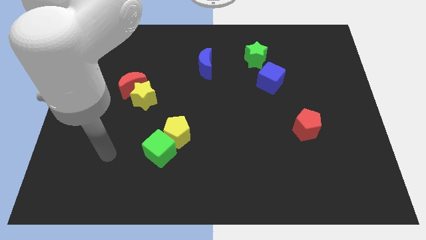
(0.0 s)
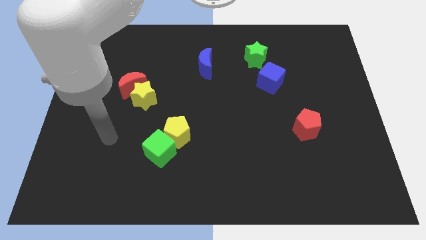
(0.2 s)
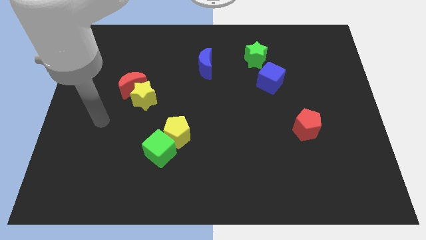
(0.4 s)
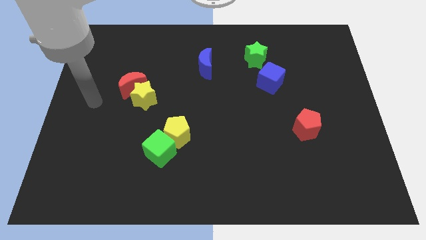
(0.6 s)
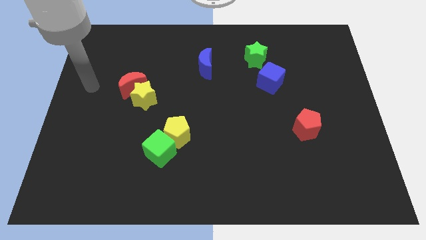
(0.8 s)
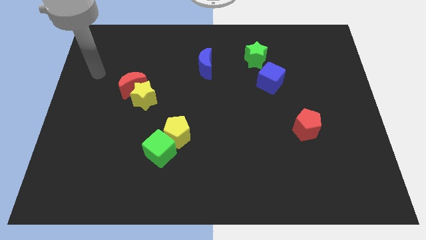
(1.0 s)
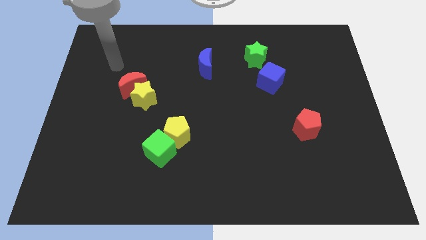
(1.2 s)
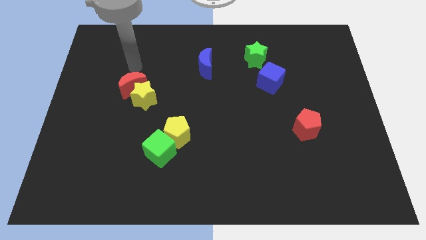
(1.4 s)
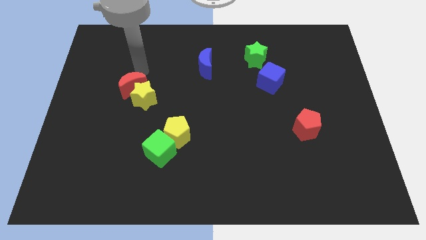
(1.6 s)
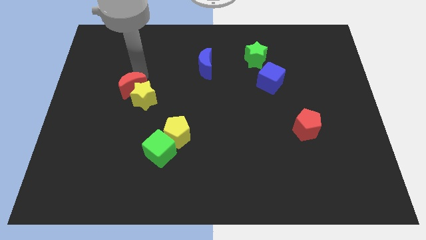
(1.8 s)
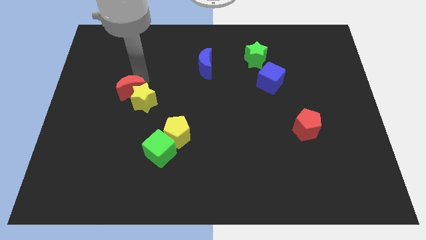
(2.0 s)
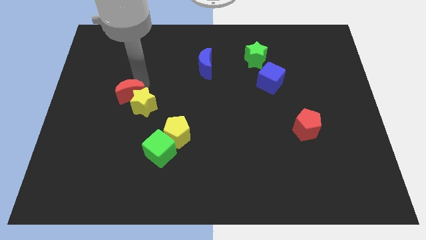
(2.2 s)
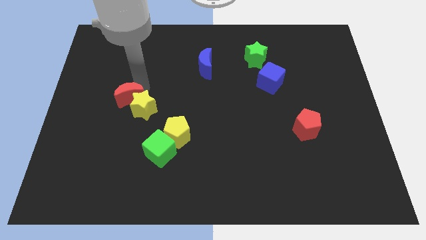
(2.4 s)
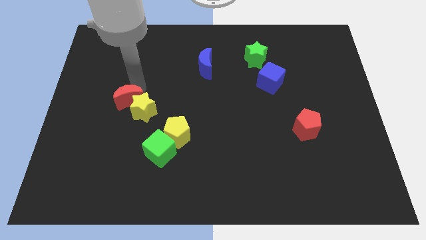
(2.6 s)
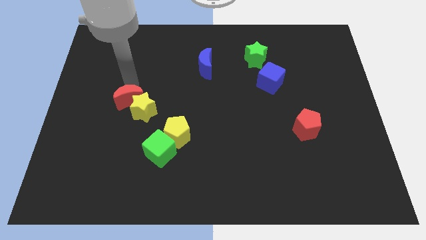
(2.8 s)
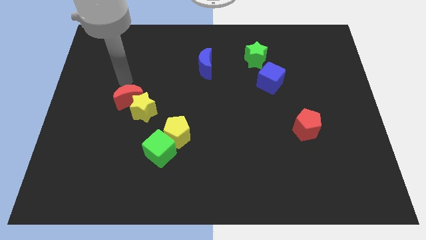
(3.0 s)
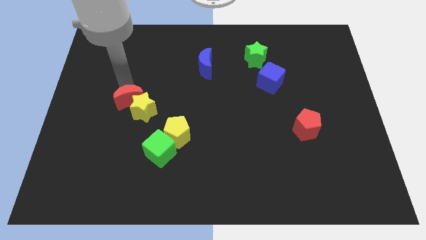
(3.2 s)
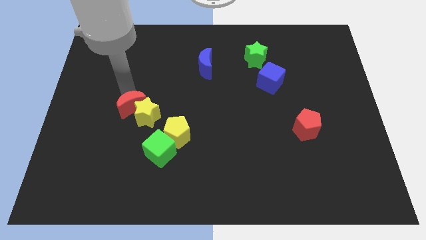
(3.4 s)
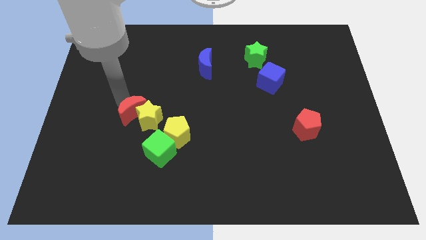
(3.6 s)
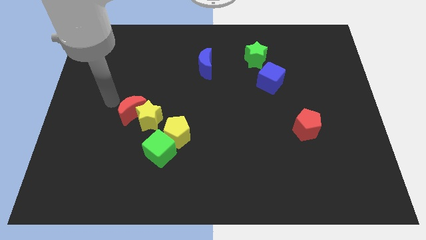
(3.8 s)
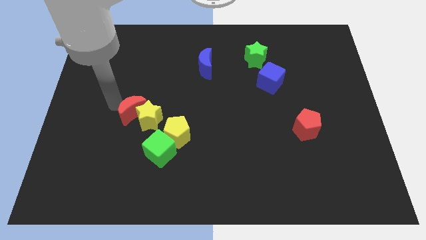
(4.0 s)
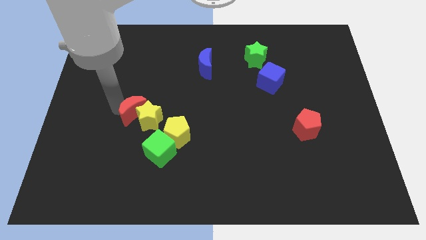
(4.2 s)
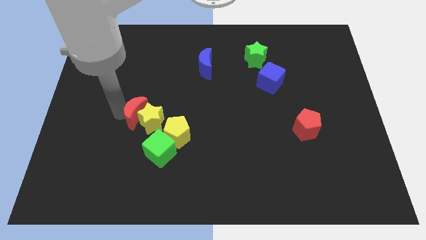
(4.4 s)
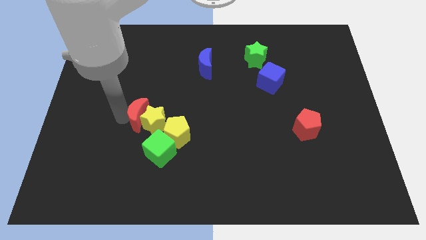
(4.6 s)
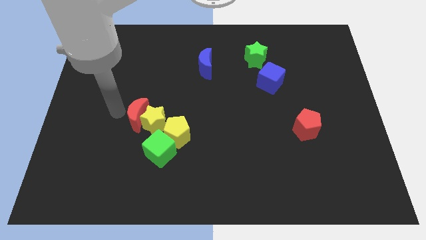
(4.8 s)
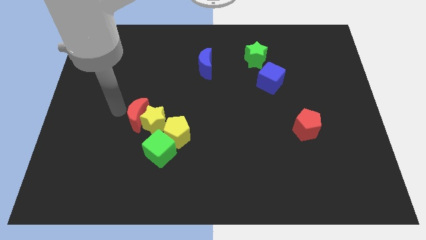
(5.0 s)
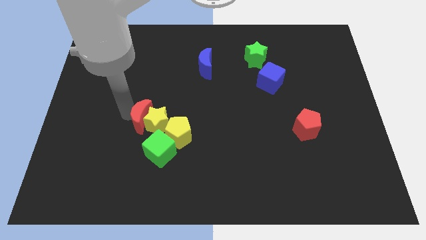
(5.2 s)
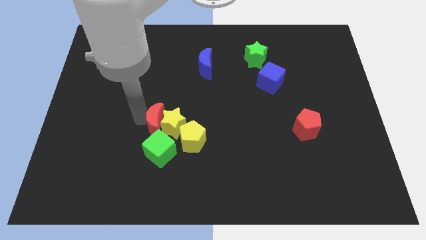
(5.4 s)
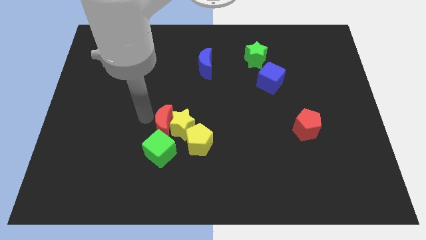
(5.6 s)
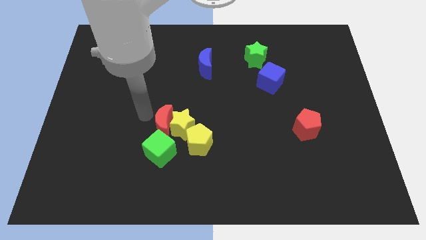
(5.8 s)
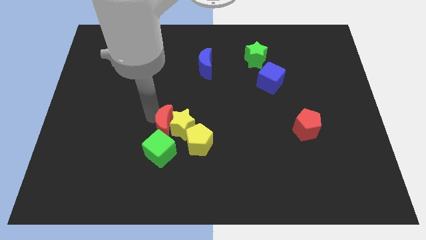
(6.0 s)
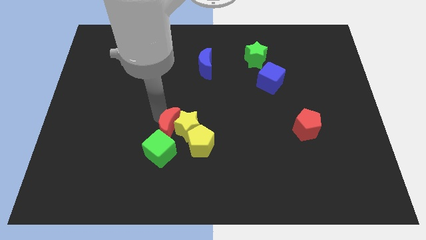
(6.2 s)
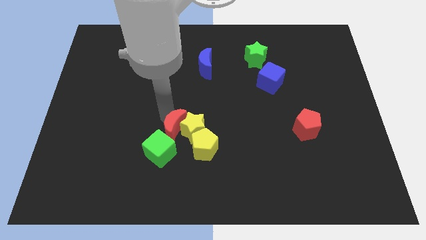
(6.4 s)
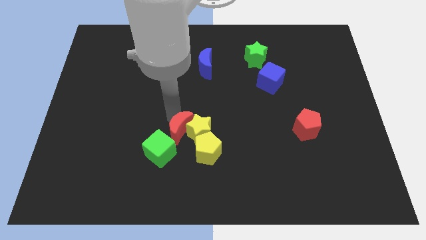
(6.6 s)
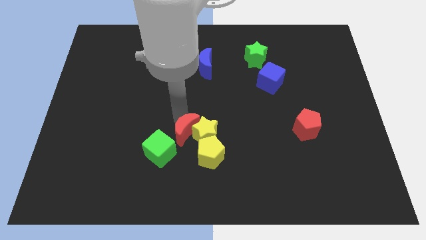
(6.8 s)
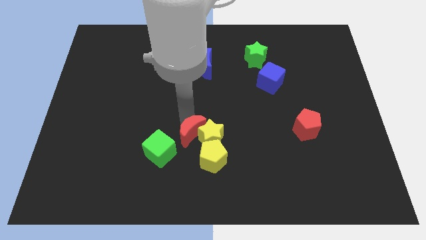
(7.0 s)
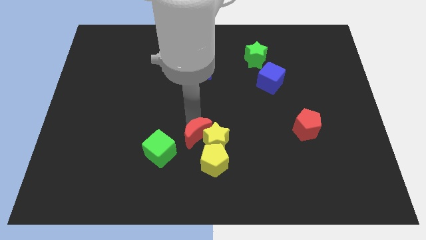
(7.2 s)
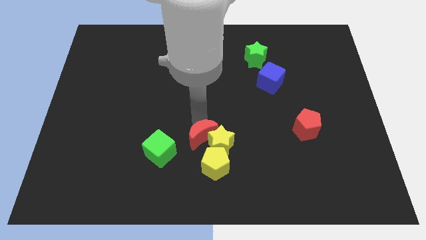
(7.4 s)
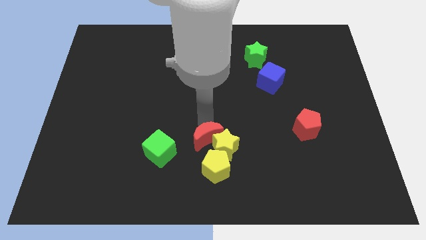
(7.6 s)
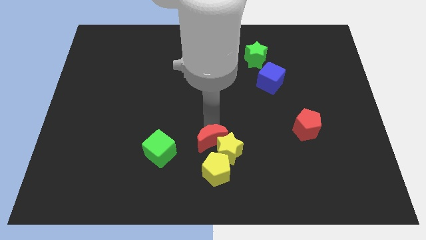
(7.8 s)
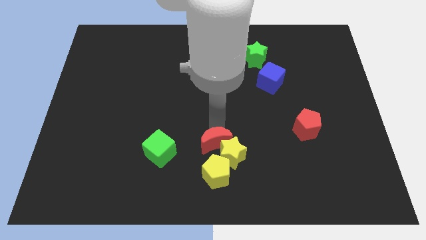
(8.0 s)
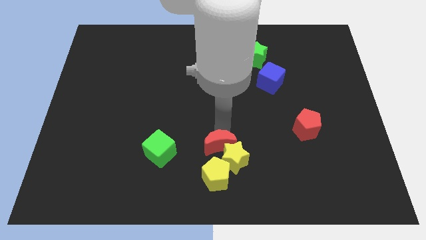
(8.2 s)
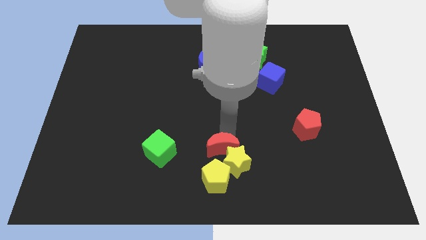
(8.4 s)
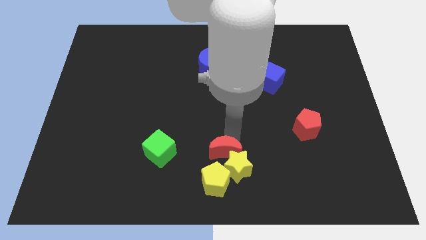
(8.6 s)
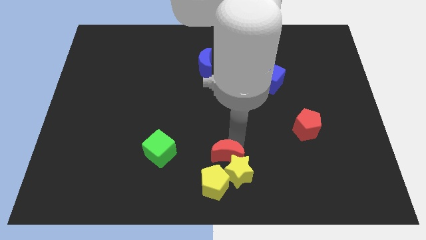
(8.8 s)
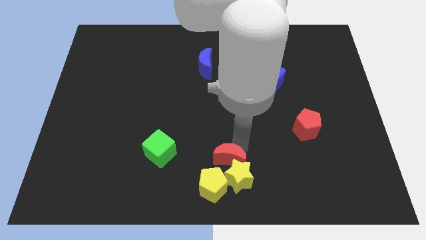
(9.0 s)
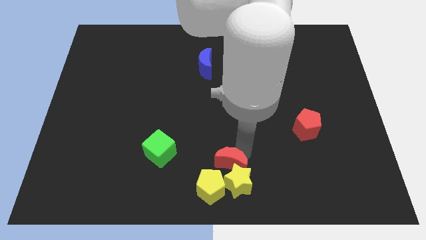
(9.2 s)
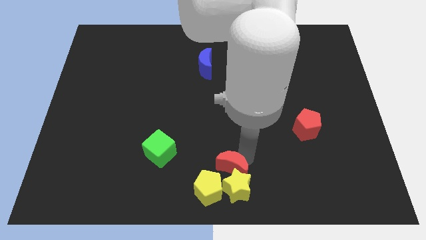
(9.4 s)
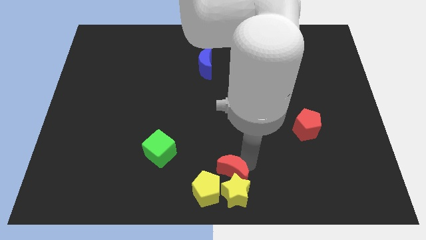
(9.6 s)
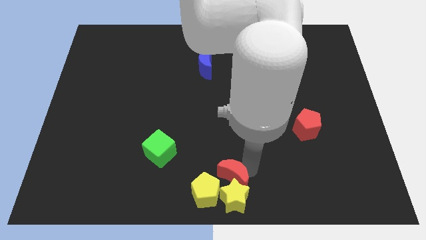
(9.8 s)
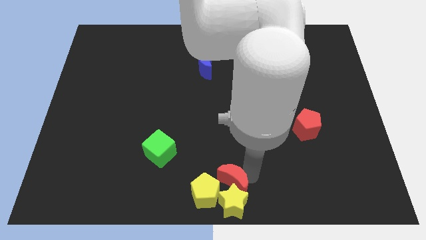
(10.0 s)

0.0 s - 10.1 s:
move the red moon close to the yellow pentagon

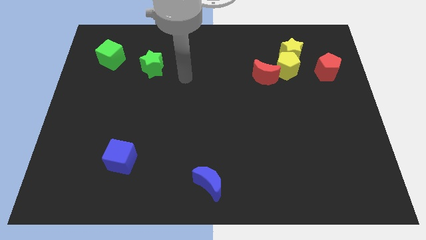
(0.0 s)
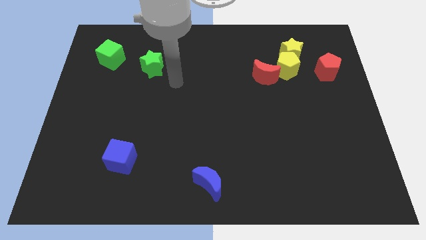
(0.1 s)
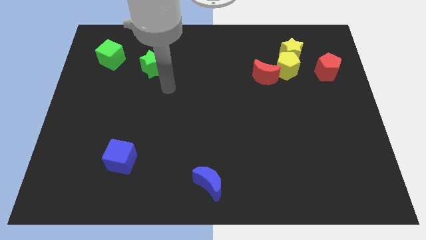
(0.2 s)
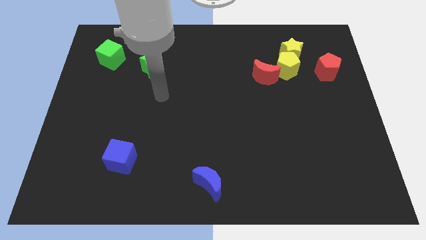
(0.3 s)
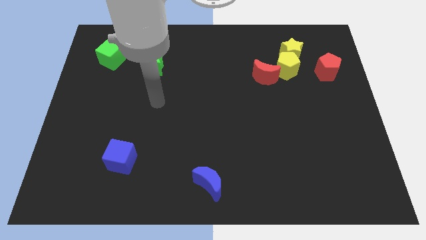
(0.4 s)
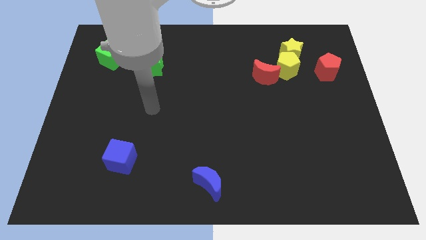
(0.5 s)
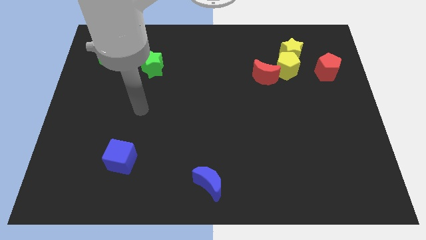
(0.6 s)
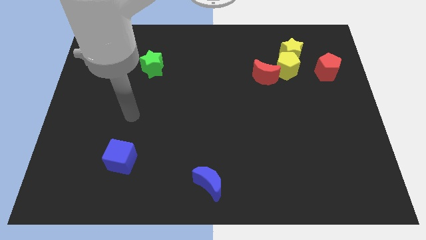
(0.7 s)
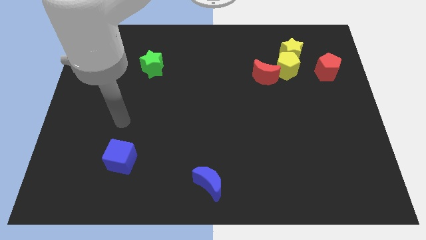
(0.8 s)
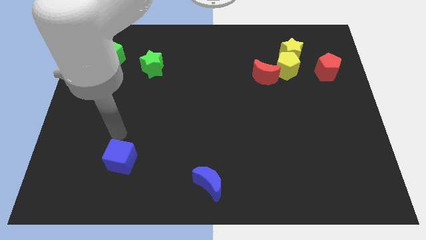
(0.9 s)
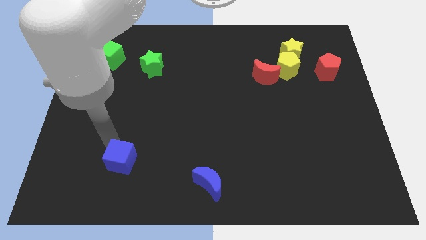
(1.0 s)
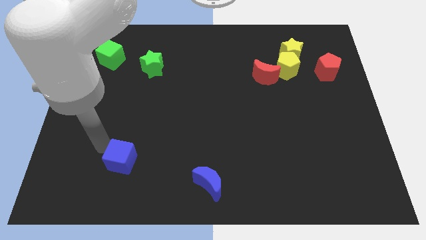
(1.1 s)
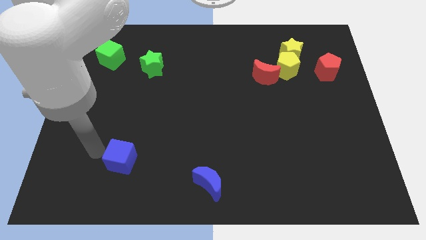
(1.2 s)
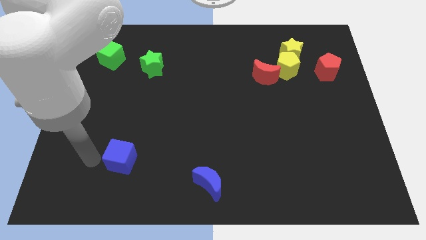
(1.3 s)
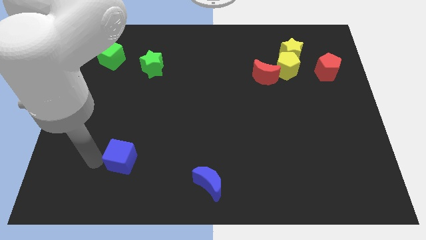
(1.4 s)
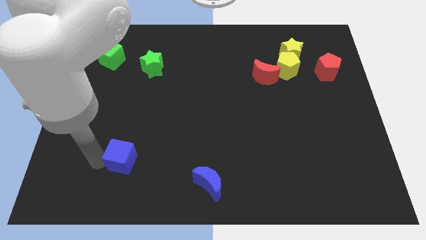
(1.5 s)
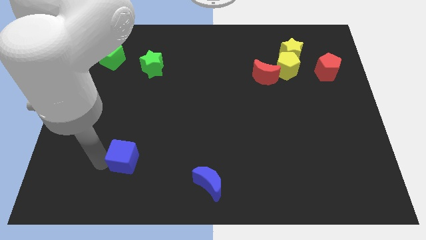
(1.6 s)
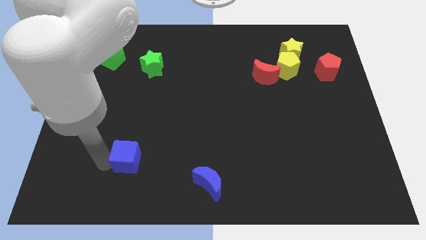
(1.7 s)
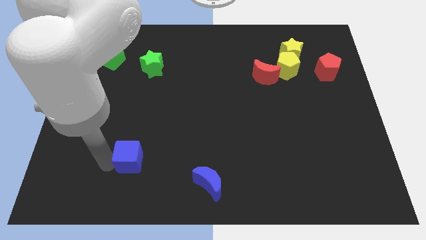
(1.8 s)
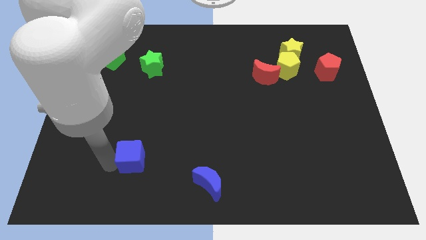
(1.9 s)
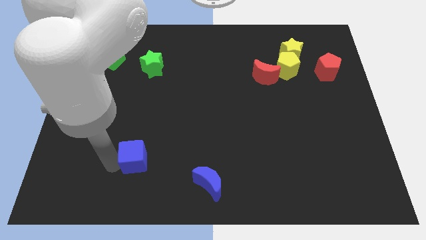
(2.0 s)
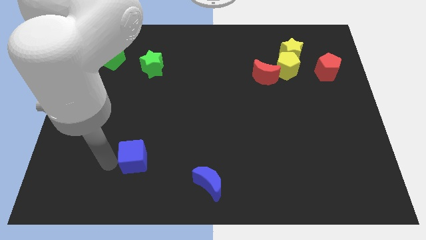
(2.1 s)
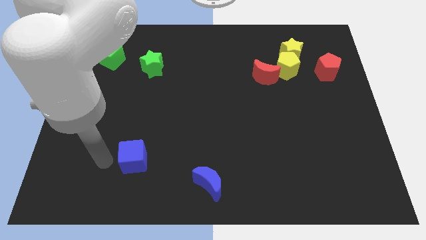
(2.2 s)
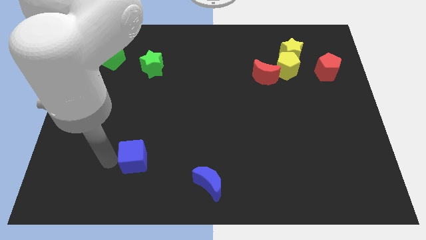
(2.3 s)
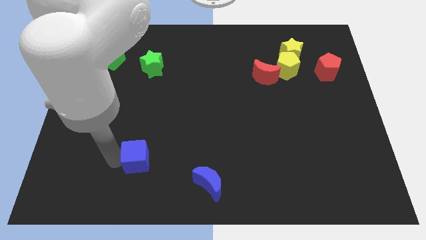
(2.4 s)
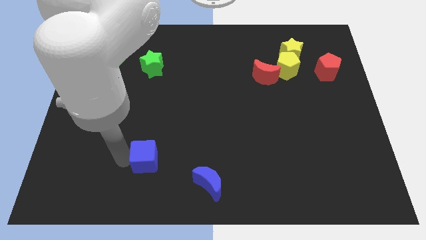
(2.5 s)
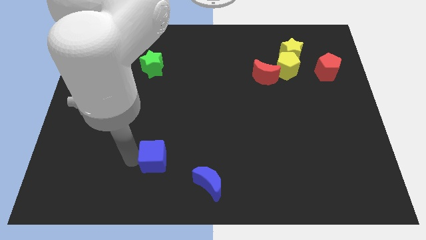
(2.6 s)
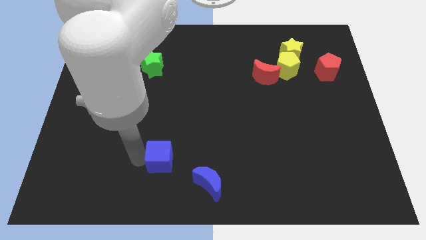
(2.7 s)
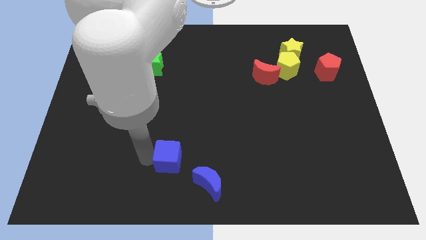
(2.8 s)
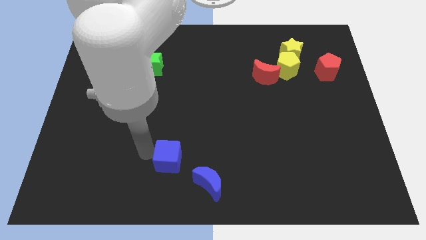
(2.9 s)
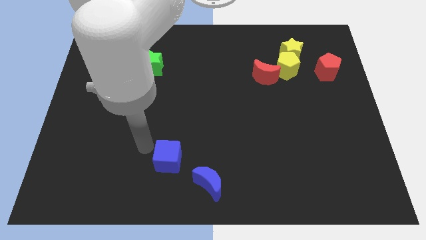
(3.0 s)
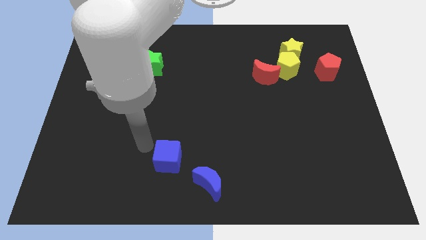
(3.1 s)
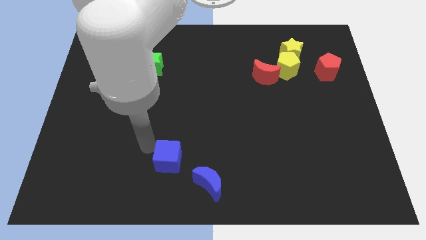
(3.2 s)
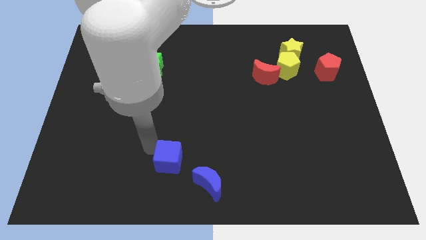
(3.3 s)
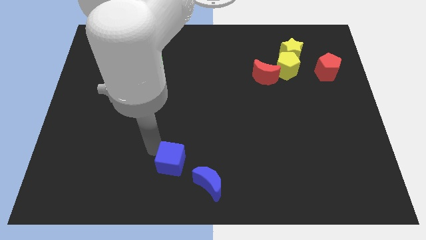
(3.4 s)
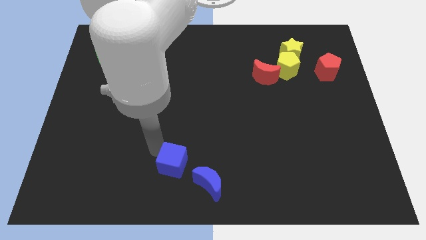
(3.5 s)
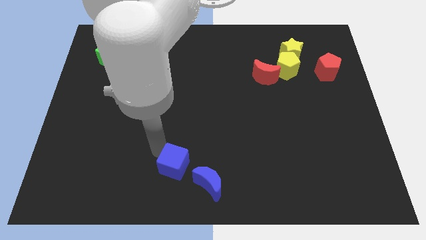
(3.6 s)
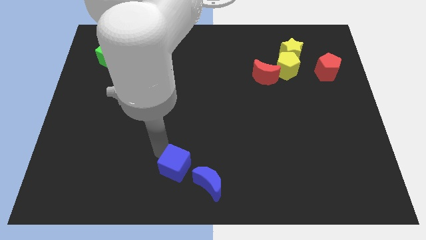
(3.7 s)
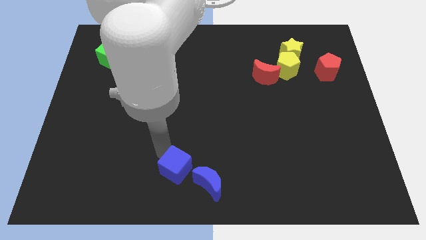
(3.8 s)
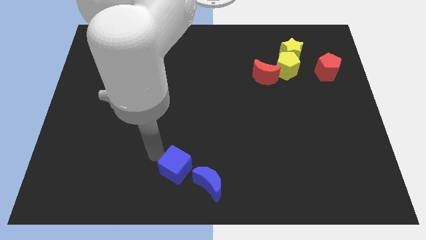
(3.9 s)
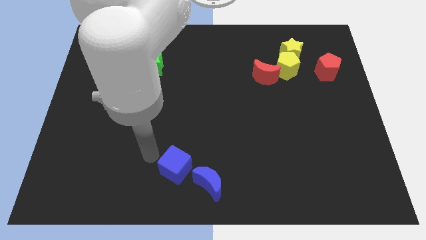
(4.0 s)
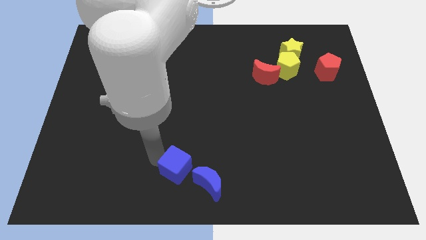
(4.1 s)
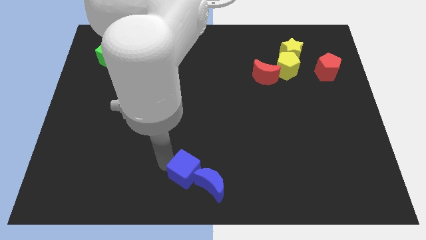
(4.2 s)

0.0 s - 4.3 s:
push the blue cube close to the blue moon
